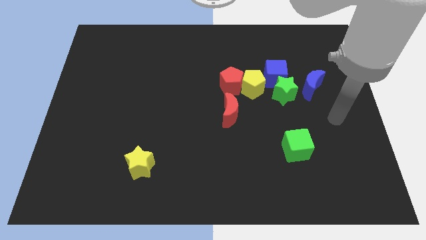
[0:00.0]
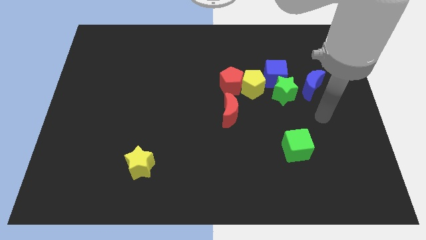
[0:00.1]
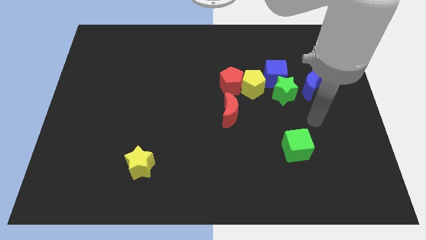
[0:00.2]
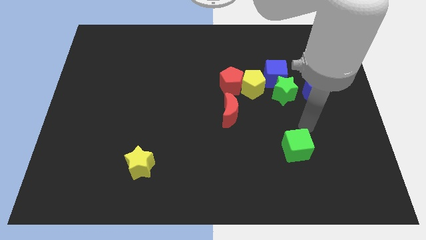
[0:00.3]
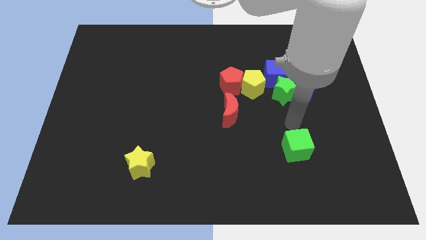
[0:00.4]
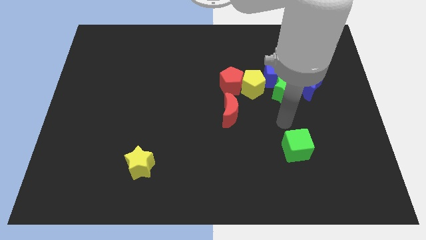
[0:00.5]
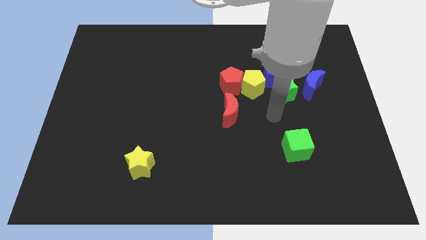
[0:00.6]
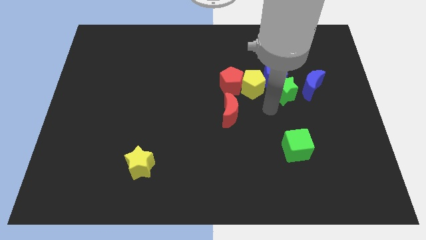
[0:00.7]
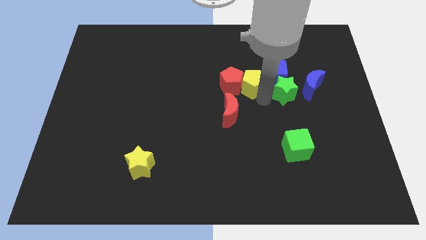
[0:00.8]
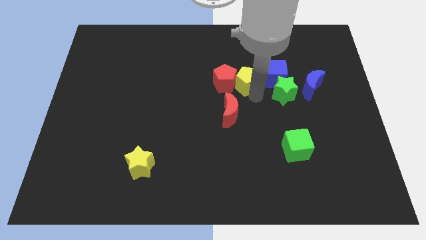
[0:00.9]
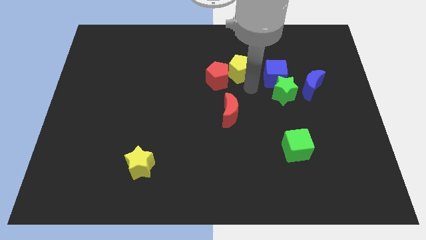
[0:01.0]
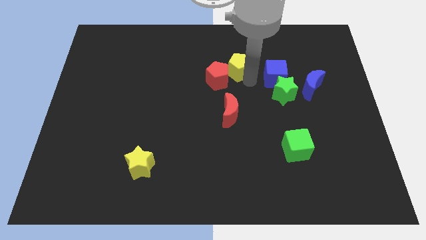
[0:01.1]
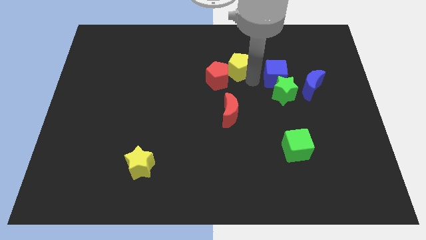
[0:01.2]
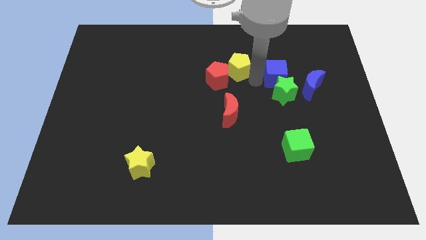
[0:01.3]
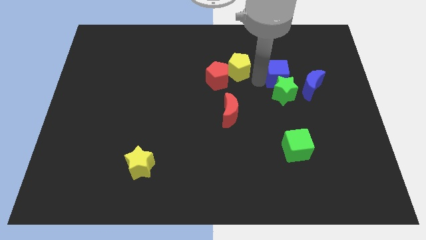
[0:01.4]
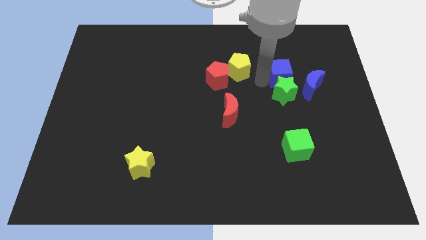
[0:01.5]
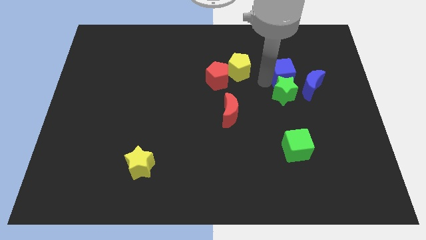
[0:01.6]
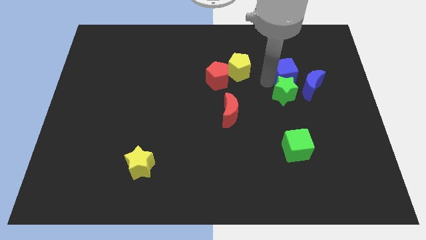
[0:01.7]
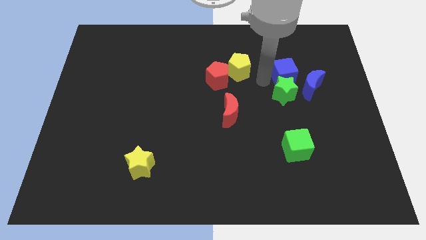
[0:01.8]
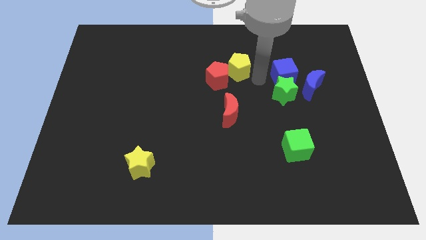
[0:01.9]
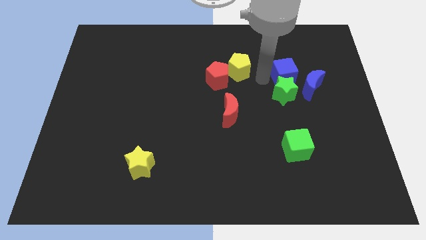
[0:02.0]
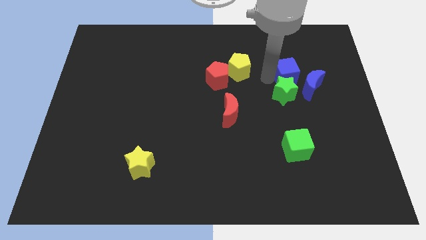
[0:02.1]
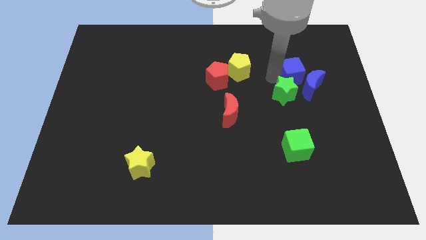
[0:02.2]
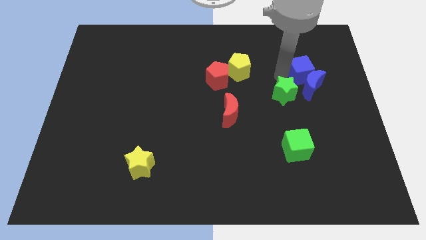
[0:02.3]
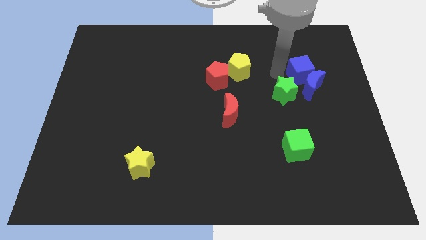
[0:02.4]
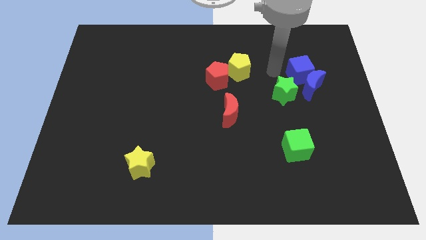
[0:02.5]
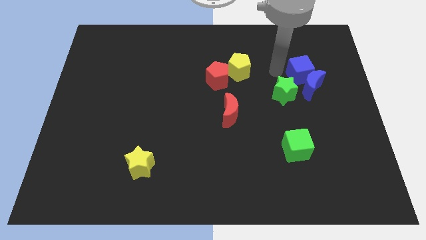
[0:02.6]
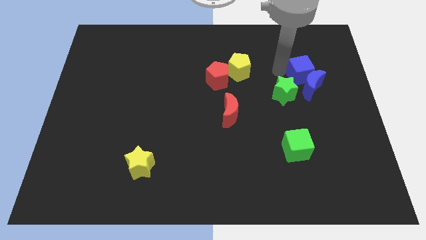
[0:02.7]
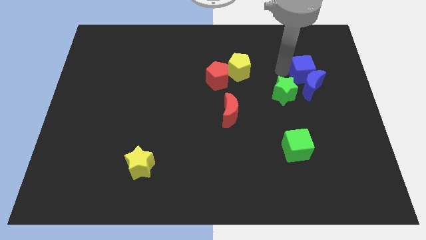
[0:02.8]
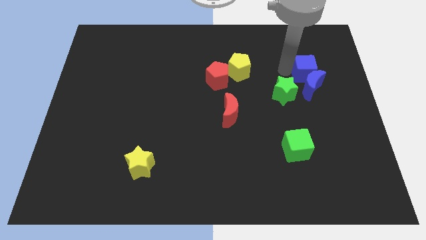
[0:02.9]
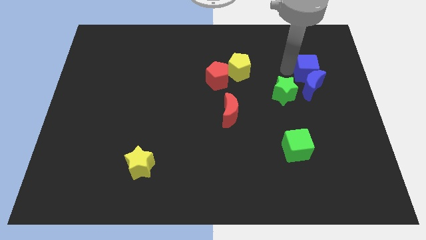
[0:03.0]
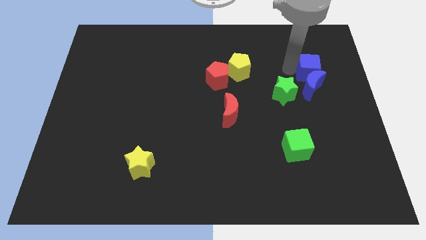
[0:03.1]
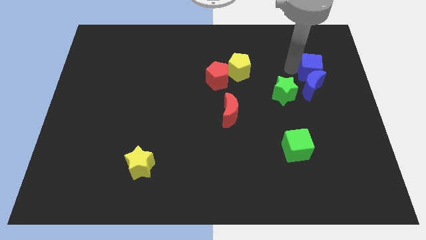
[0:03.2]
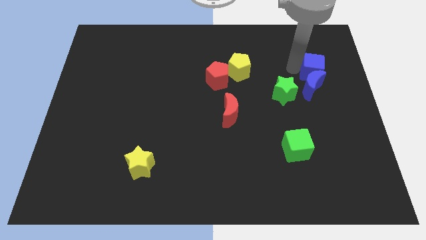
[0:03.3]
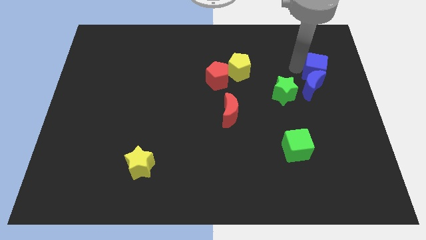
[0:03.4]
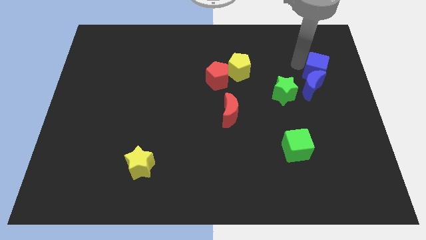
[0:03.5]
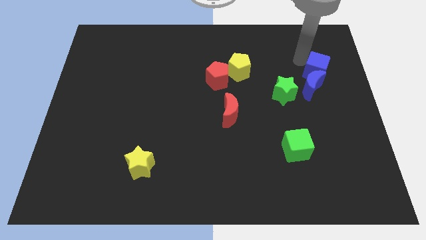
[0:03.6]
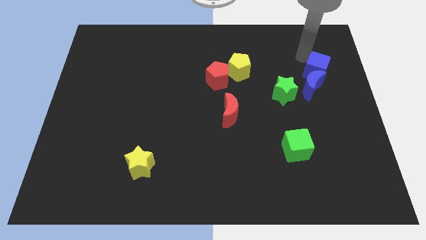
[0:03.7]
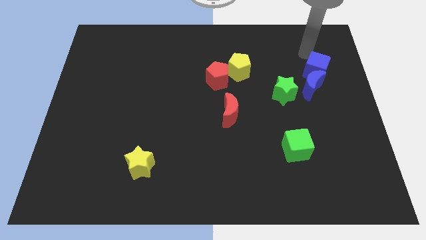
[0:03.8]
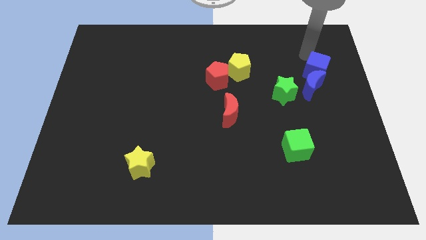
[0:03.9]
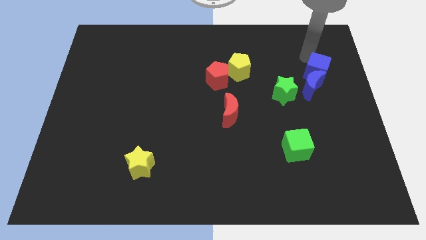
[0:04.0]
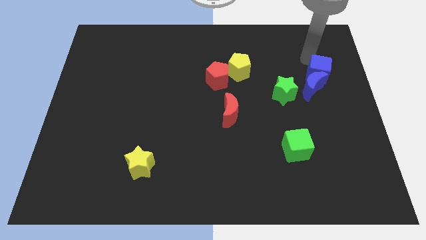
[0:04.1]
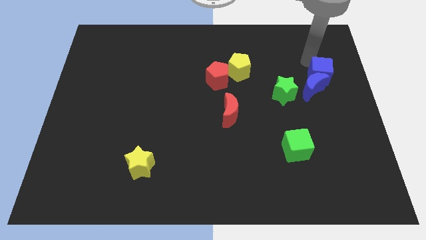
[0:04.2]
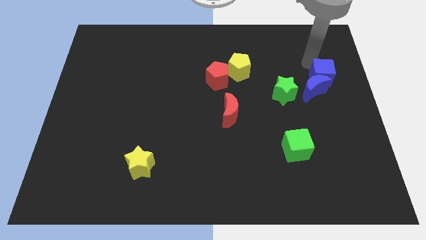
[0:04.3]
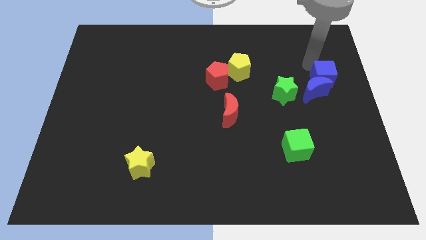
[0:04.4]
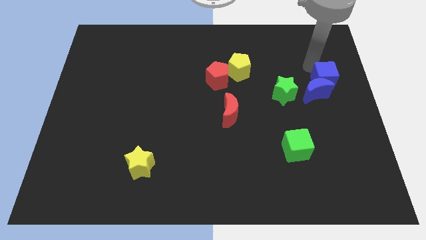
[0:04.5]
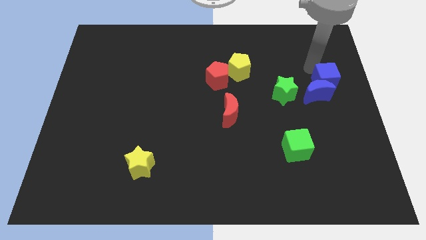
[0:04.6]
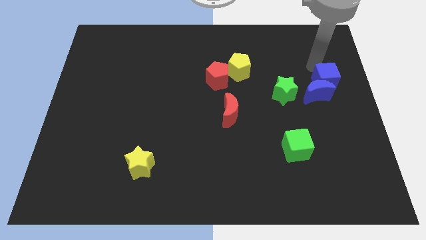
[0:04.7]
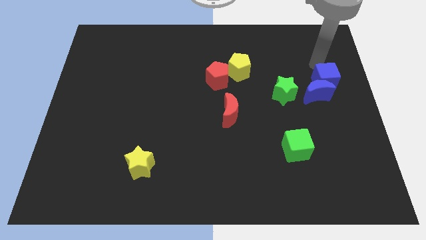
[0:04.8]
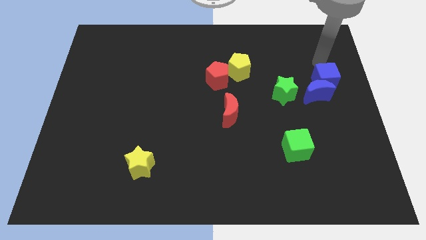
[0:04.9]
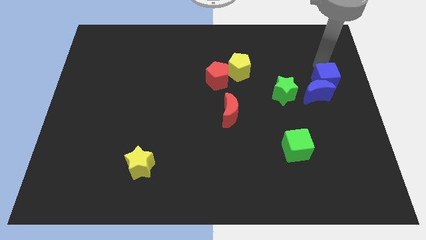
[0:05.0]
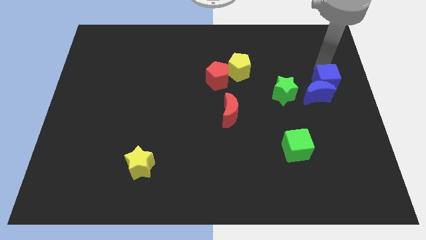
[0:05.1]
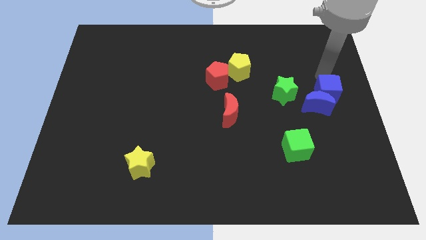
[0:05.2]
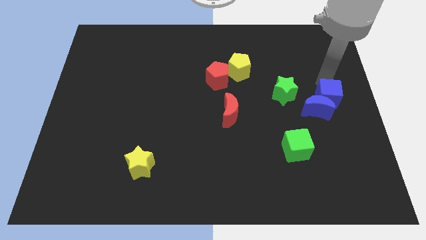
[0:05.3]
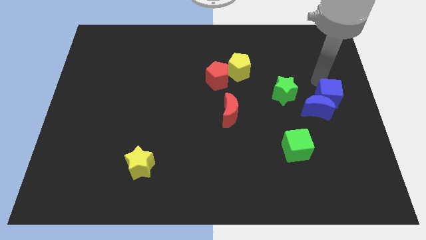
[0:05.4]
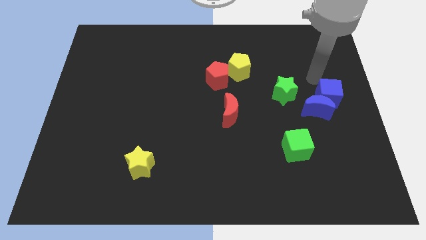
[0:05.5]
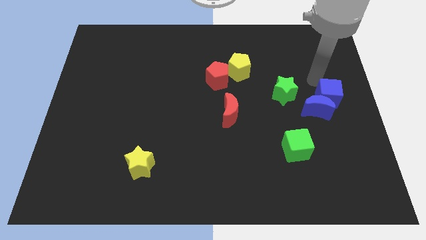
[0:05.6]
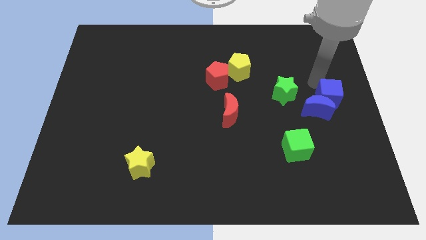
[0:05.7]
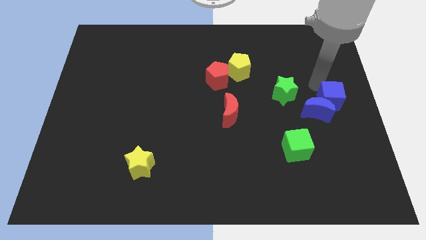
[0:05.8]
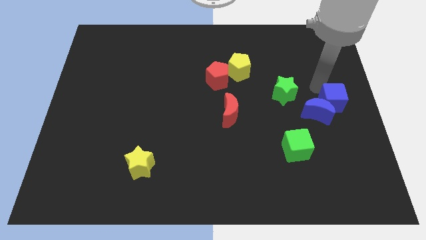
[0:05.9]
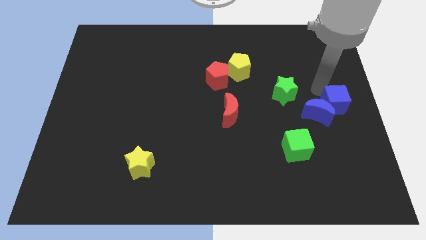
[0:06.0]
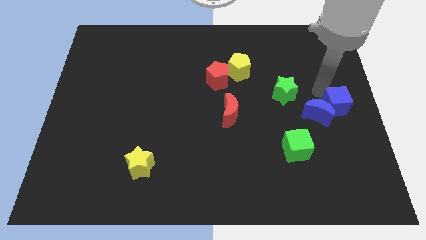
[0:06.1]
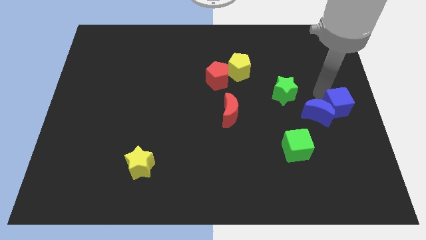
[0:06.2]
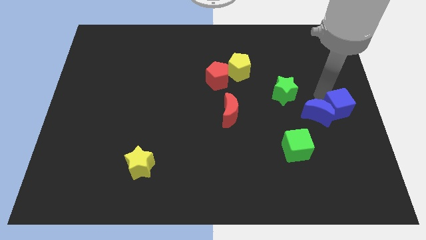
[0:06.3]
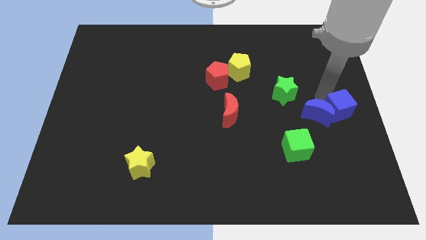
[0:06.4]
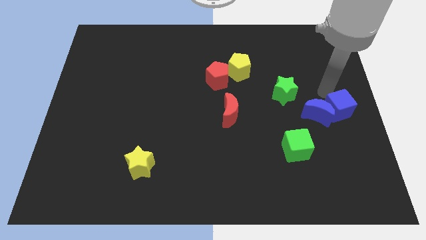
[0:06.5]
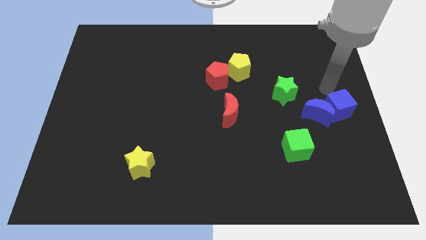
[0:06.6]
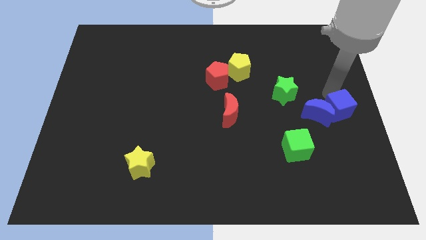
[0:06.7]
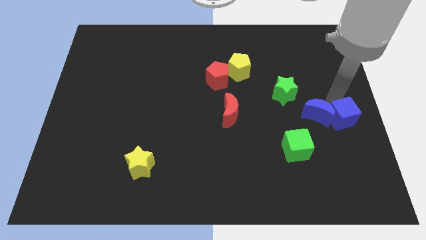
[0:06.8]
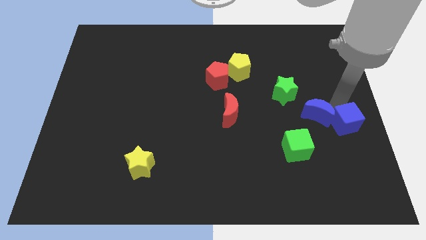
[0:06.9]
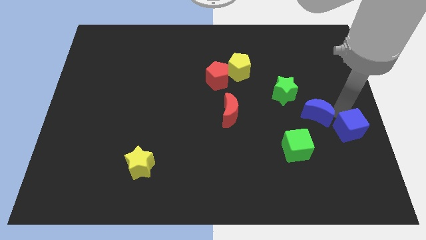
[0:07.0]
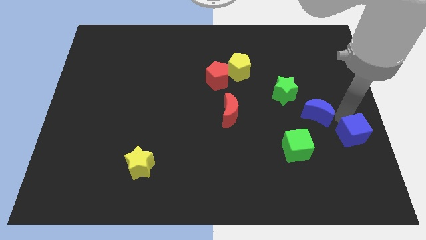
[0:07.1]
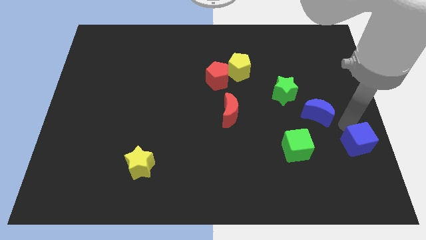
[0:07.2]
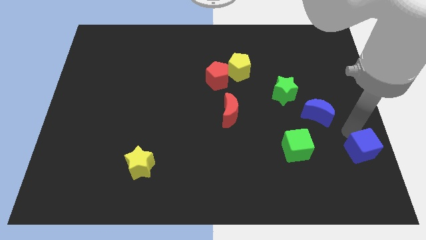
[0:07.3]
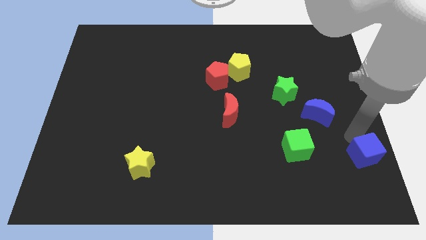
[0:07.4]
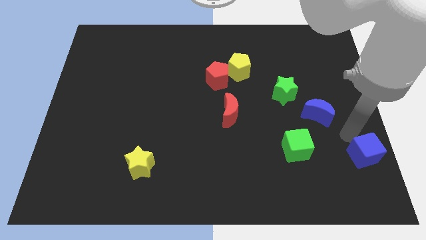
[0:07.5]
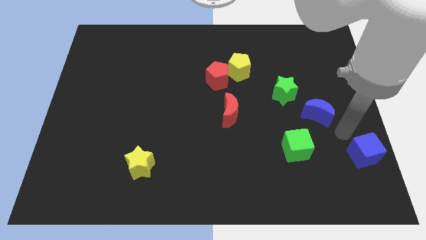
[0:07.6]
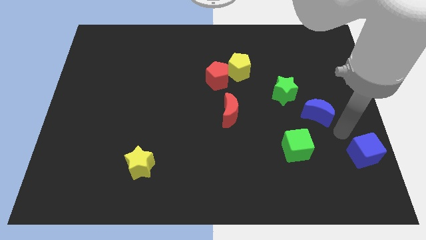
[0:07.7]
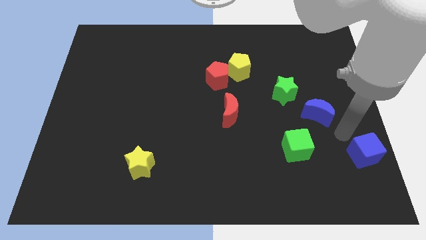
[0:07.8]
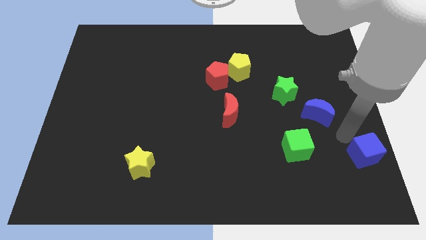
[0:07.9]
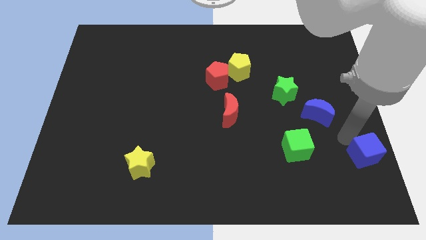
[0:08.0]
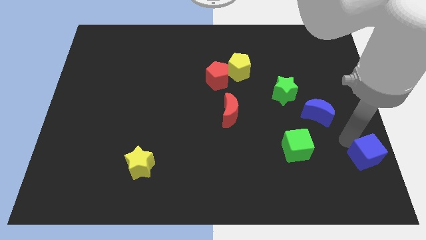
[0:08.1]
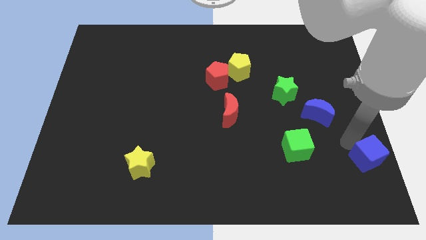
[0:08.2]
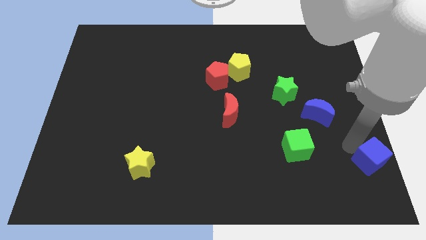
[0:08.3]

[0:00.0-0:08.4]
move the blue cube to the lower right corner
